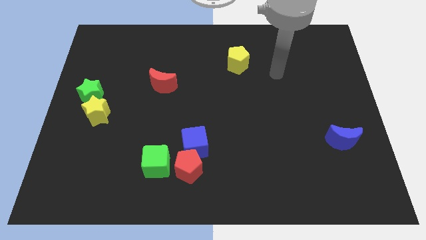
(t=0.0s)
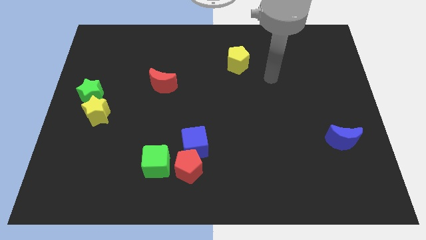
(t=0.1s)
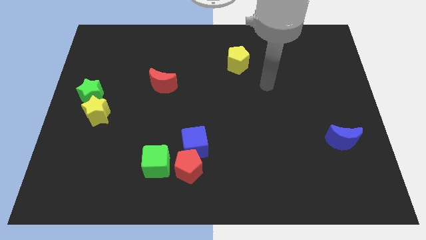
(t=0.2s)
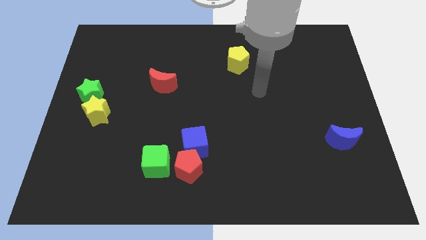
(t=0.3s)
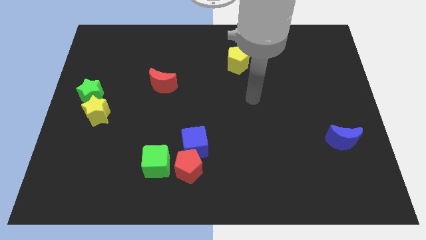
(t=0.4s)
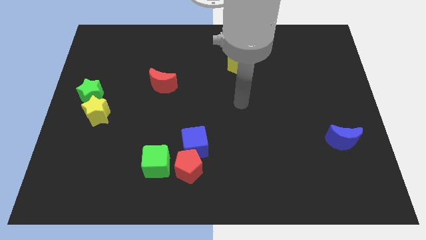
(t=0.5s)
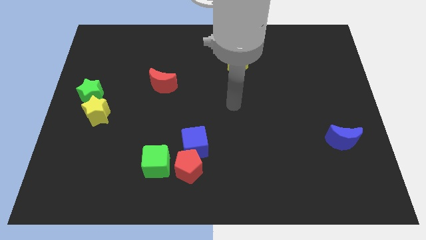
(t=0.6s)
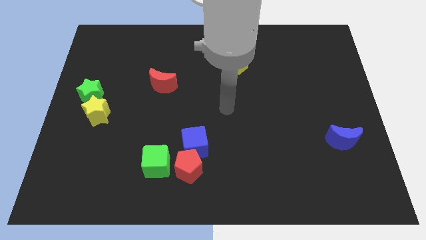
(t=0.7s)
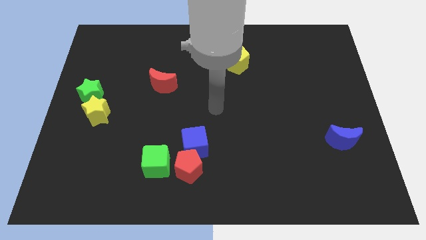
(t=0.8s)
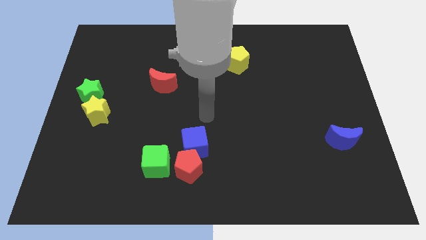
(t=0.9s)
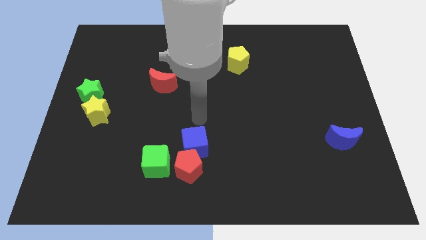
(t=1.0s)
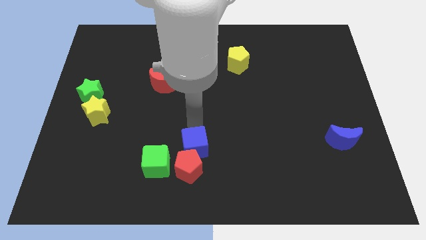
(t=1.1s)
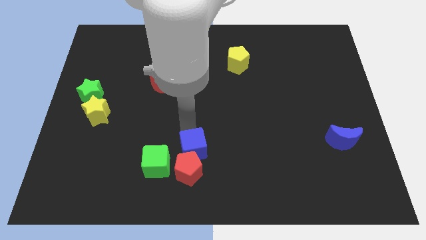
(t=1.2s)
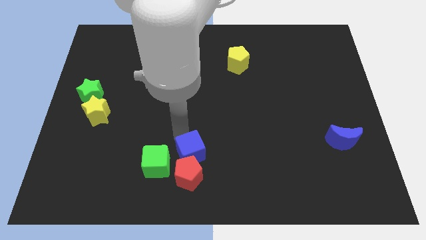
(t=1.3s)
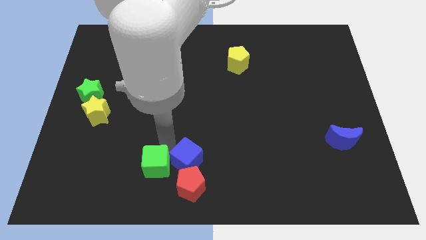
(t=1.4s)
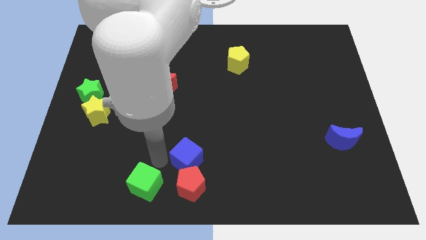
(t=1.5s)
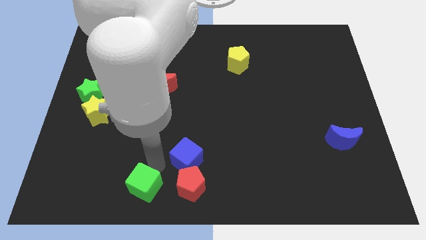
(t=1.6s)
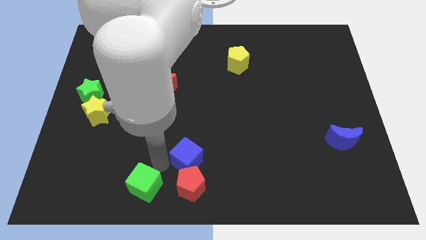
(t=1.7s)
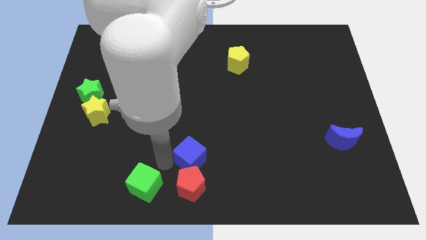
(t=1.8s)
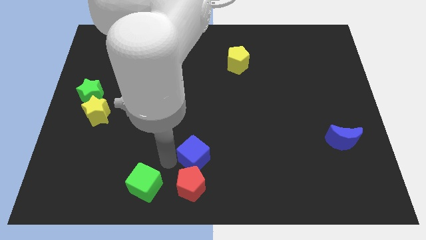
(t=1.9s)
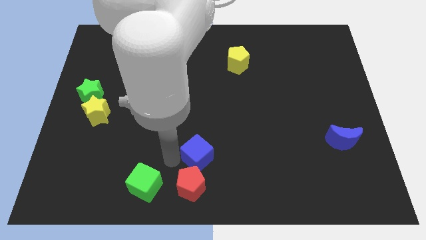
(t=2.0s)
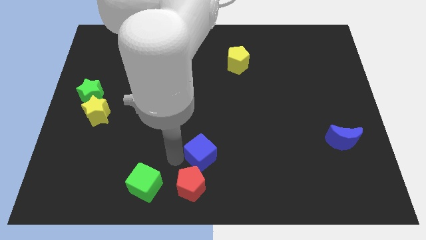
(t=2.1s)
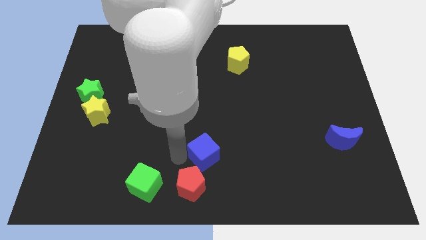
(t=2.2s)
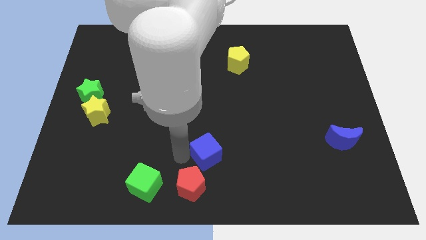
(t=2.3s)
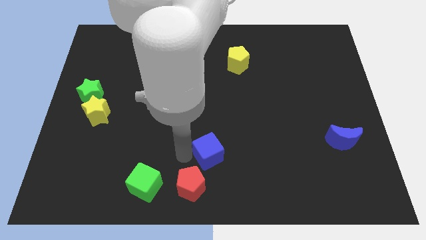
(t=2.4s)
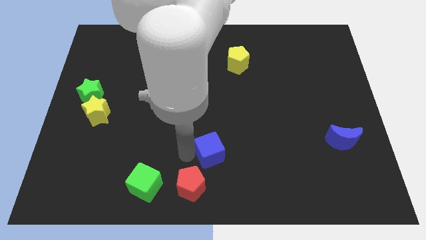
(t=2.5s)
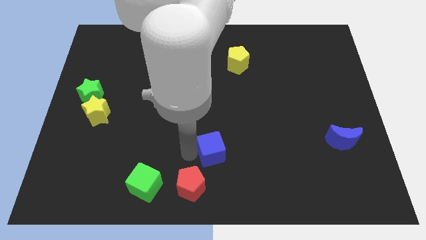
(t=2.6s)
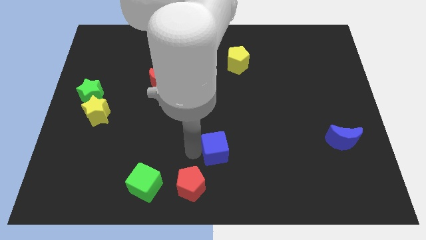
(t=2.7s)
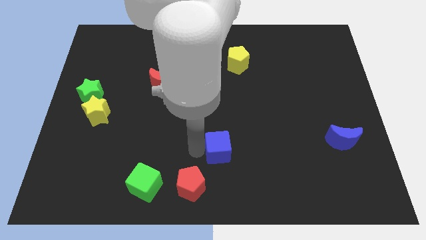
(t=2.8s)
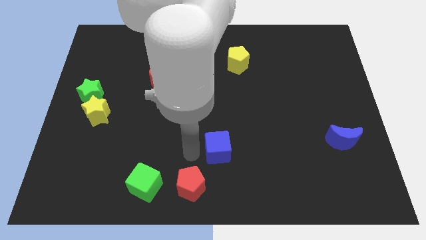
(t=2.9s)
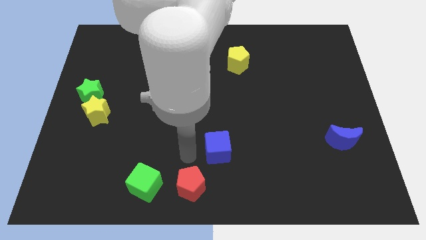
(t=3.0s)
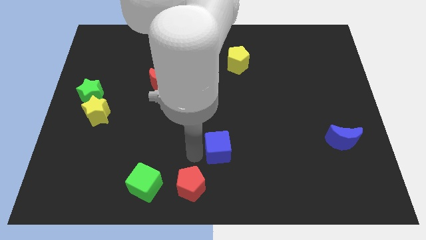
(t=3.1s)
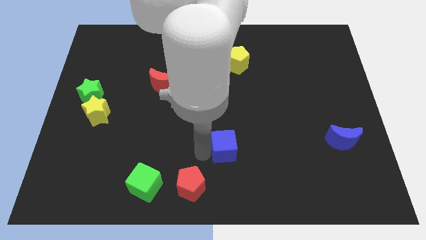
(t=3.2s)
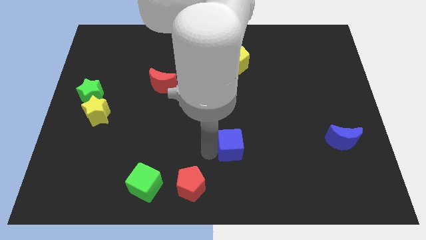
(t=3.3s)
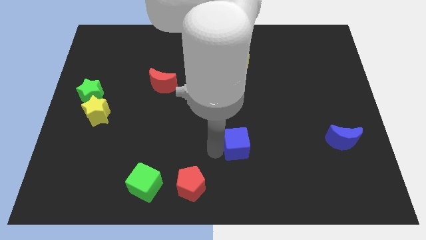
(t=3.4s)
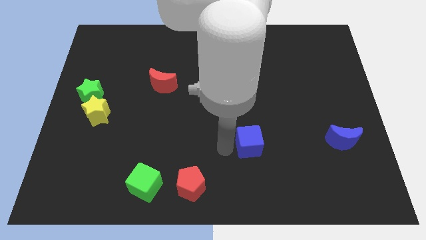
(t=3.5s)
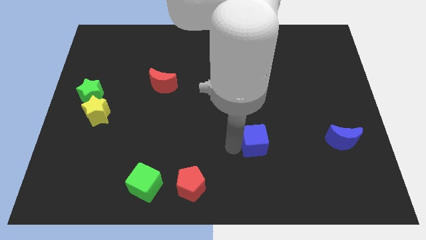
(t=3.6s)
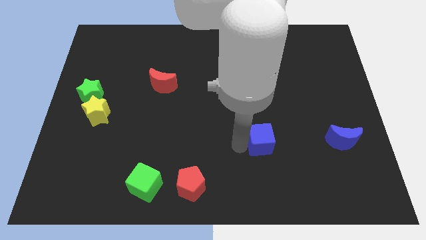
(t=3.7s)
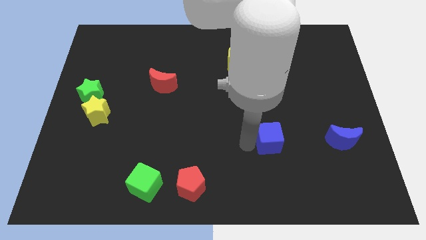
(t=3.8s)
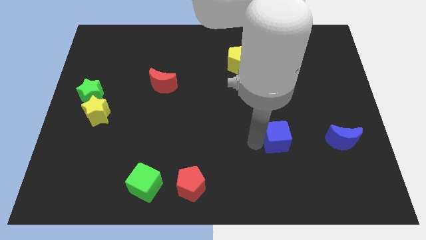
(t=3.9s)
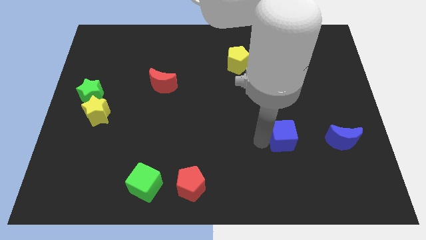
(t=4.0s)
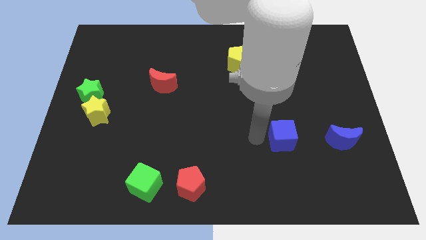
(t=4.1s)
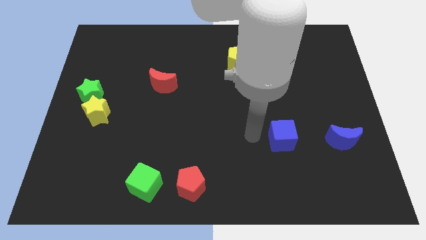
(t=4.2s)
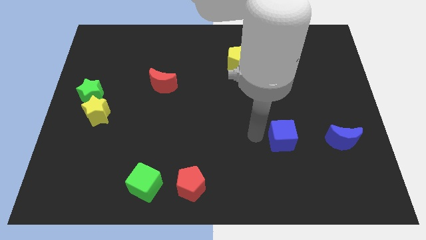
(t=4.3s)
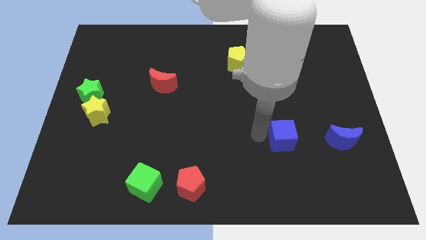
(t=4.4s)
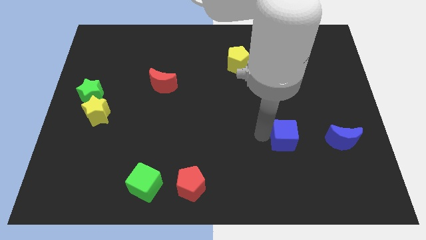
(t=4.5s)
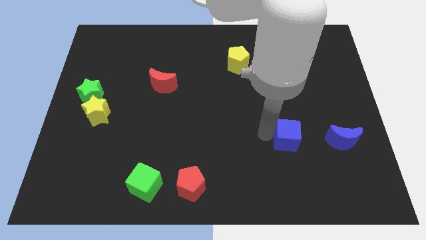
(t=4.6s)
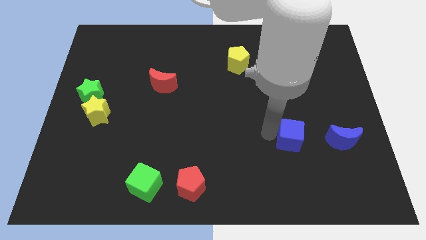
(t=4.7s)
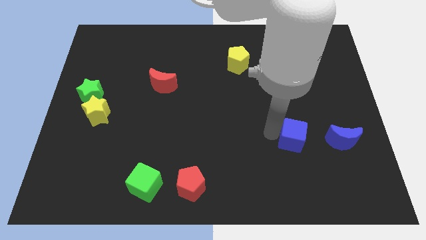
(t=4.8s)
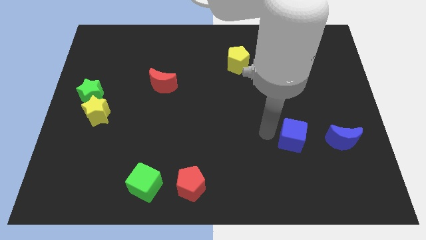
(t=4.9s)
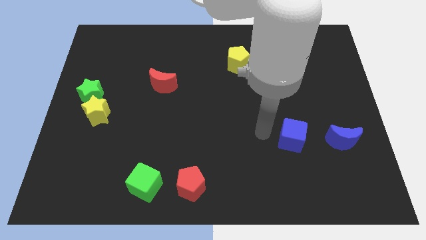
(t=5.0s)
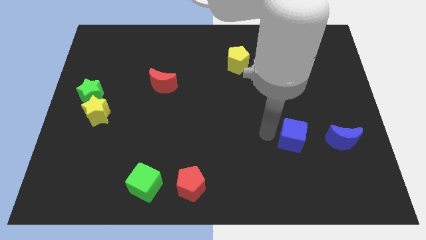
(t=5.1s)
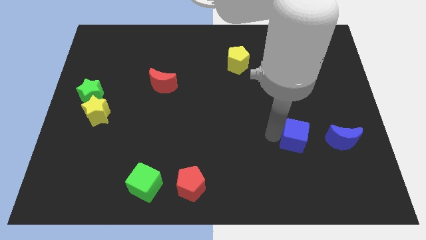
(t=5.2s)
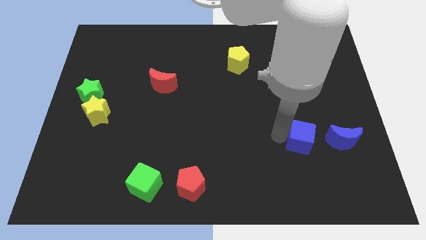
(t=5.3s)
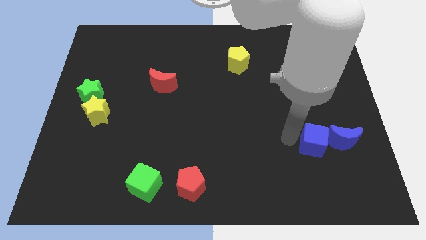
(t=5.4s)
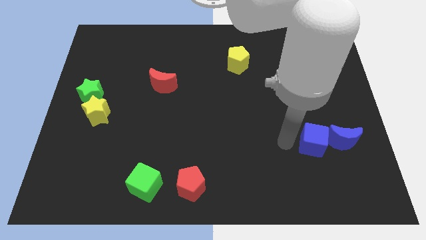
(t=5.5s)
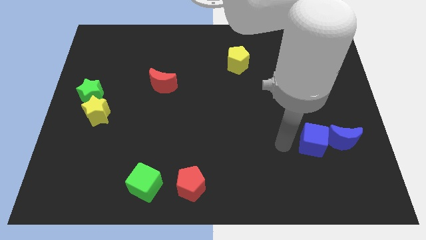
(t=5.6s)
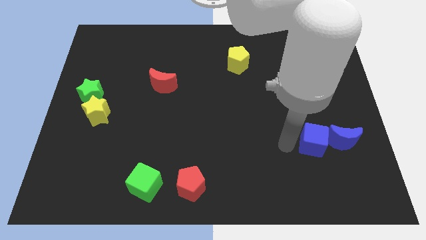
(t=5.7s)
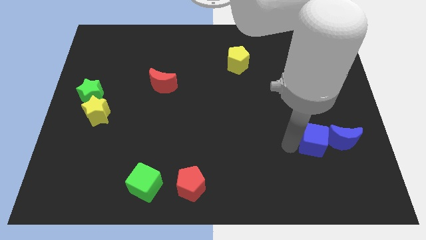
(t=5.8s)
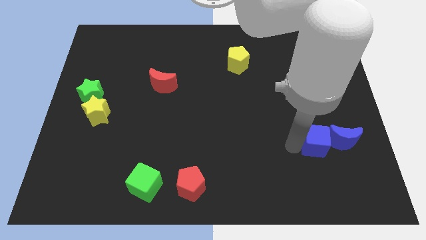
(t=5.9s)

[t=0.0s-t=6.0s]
move the blue cube towards the blue moon

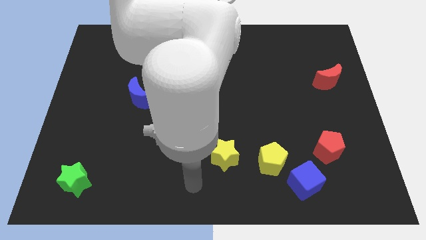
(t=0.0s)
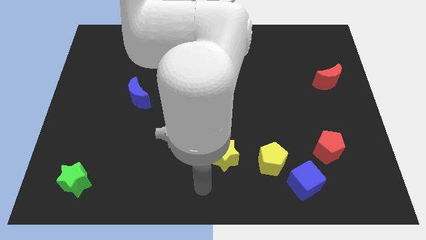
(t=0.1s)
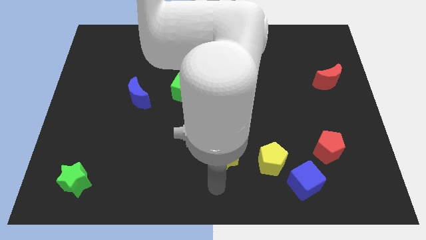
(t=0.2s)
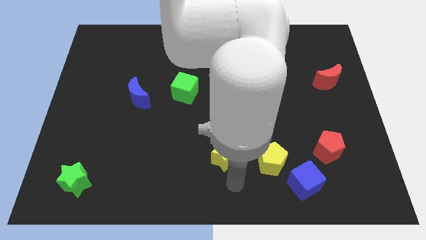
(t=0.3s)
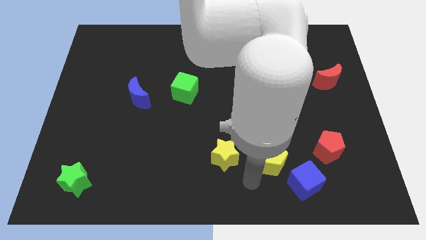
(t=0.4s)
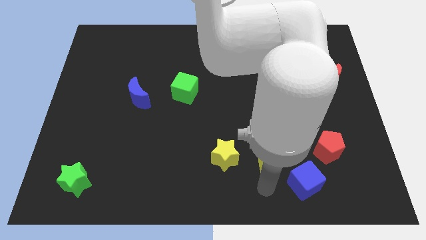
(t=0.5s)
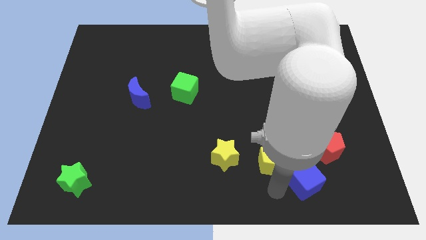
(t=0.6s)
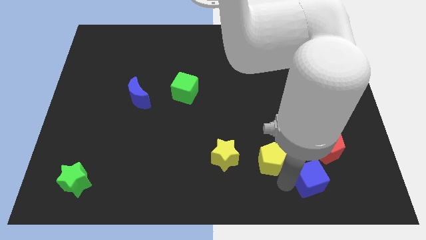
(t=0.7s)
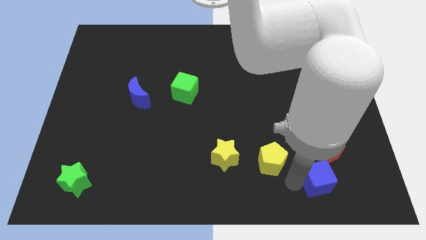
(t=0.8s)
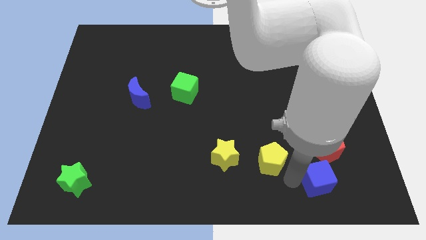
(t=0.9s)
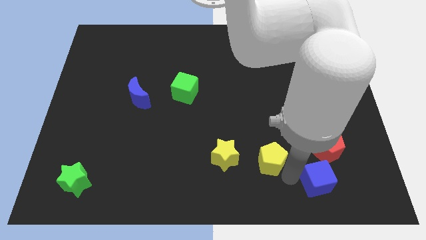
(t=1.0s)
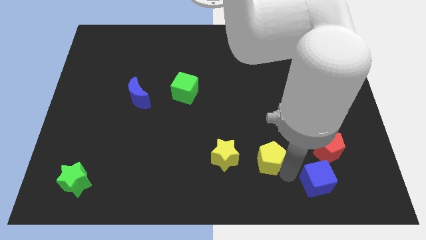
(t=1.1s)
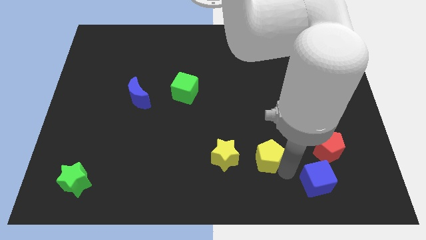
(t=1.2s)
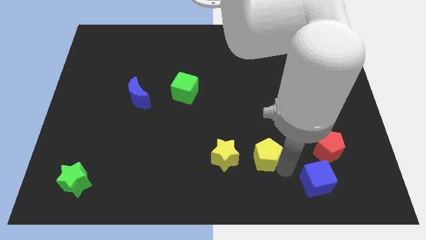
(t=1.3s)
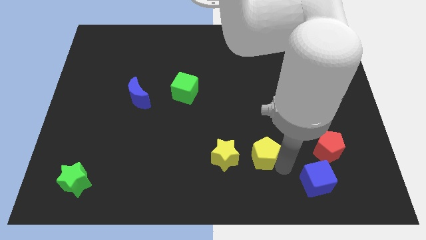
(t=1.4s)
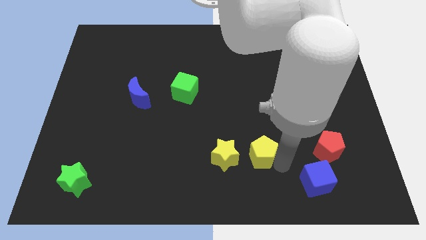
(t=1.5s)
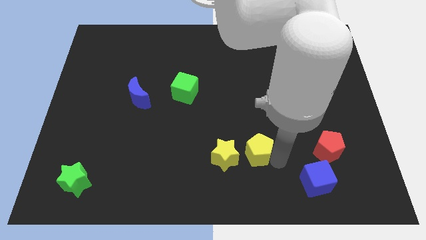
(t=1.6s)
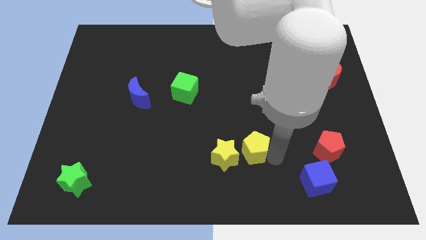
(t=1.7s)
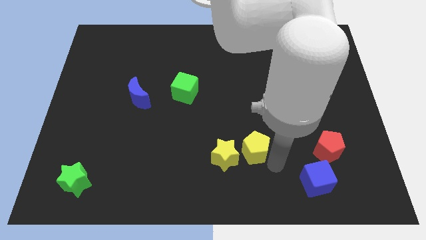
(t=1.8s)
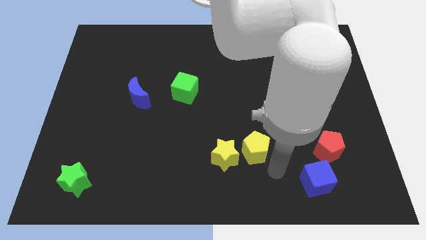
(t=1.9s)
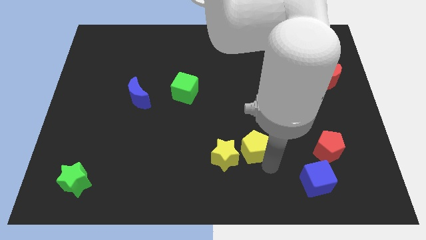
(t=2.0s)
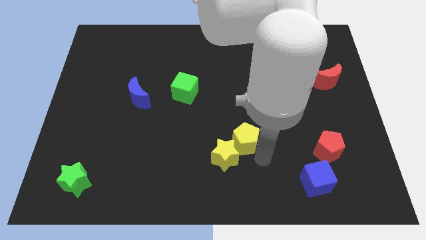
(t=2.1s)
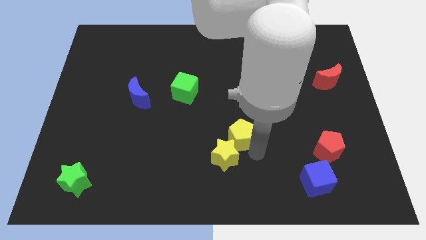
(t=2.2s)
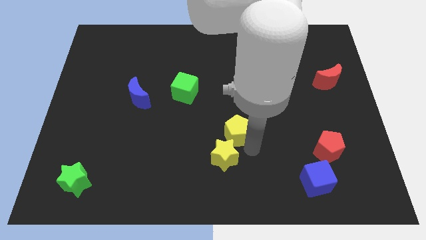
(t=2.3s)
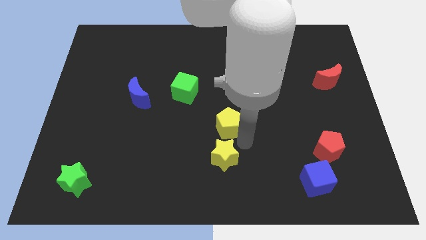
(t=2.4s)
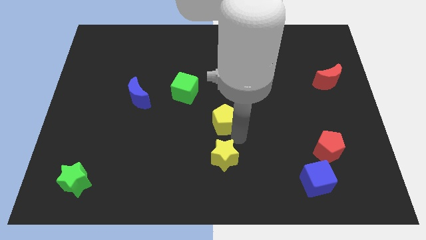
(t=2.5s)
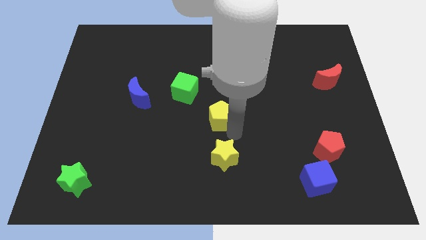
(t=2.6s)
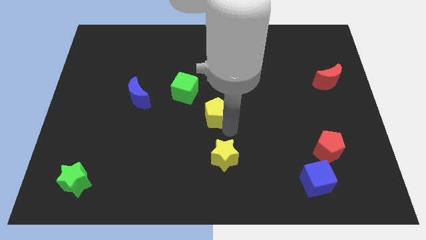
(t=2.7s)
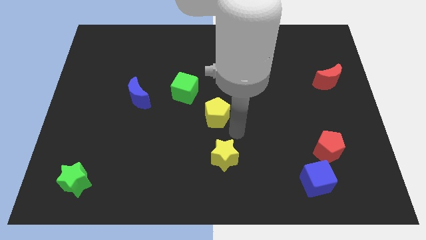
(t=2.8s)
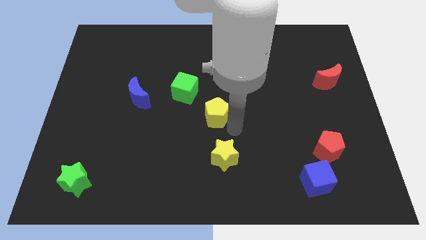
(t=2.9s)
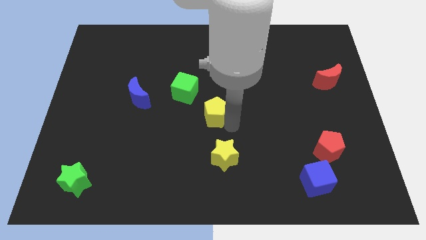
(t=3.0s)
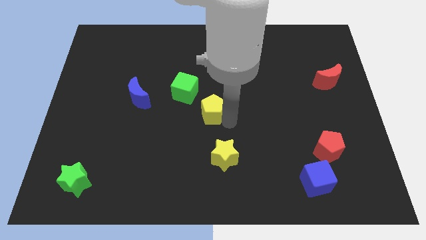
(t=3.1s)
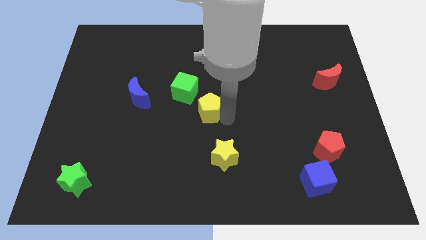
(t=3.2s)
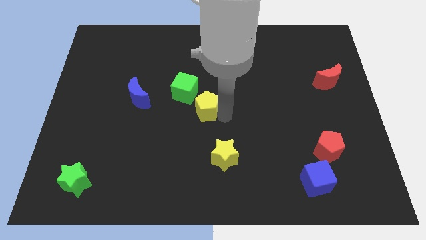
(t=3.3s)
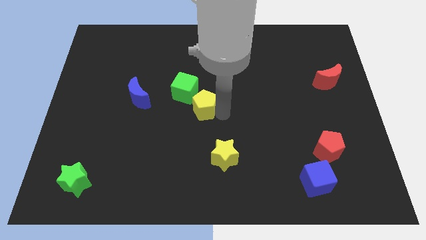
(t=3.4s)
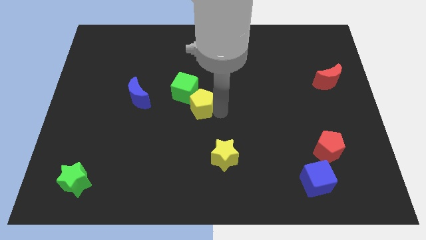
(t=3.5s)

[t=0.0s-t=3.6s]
move the yellow pentagon towards the green cube
